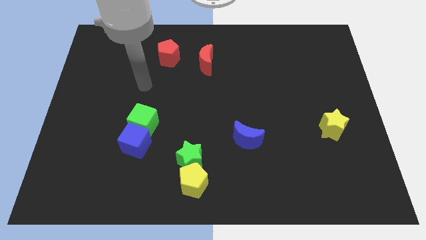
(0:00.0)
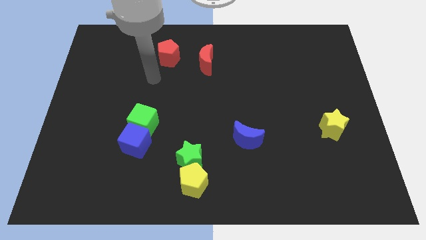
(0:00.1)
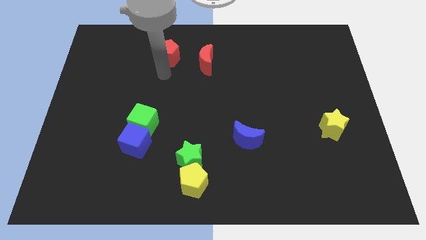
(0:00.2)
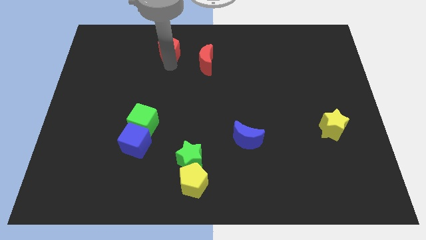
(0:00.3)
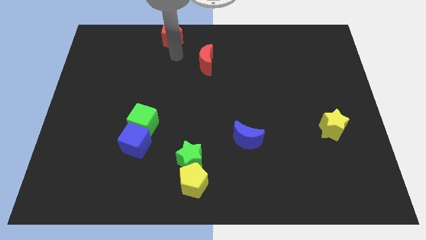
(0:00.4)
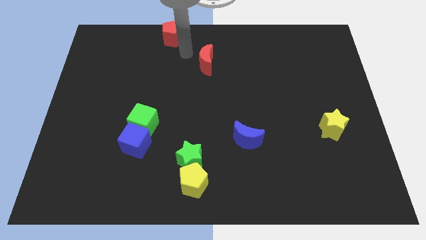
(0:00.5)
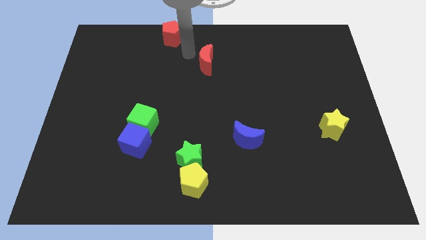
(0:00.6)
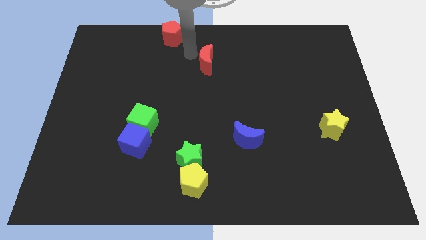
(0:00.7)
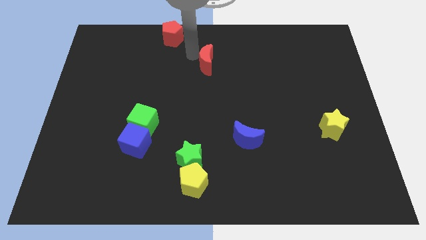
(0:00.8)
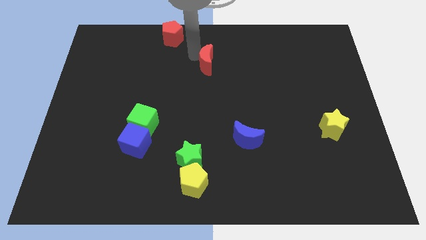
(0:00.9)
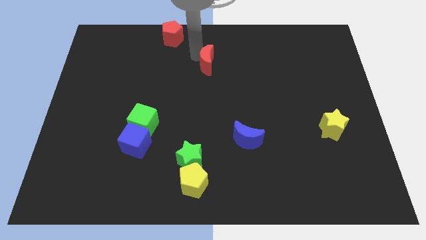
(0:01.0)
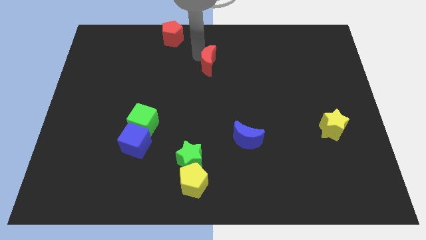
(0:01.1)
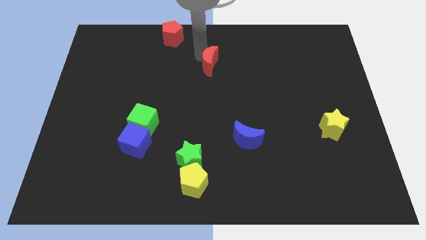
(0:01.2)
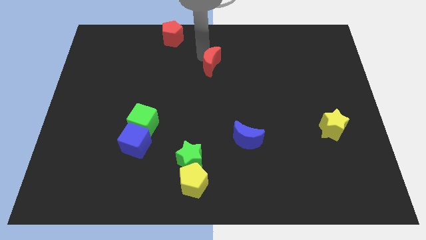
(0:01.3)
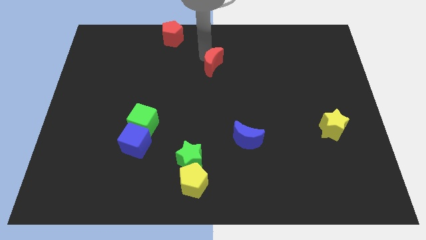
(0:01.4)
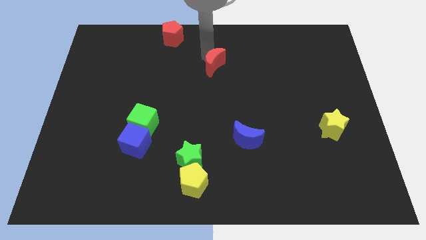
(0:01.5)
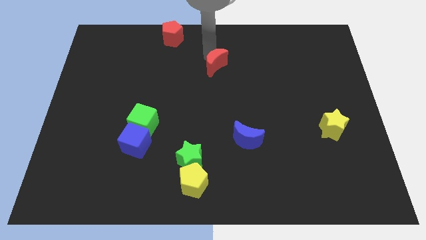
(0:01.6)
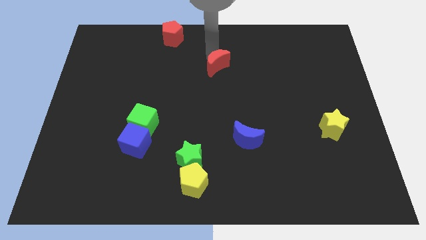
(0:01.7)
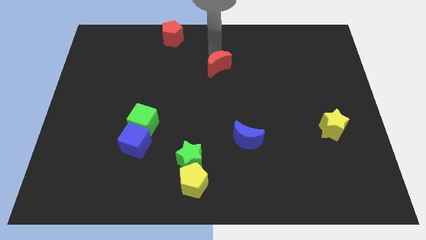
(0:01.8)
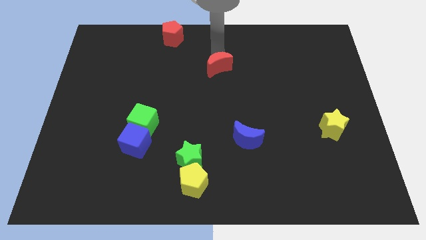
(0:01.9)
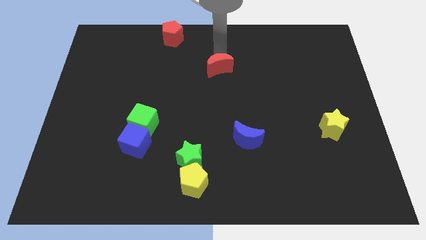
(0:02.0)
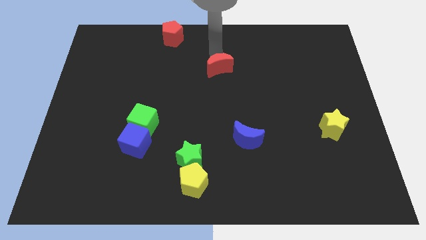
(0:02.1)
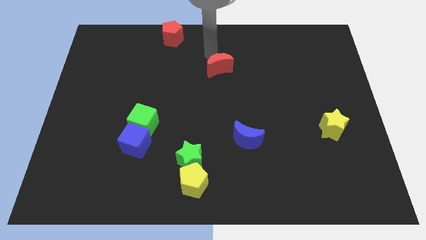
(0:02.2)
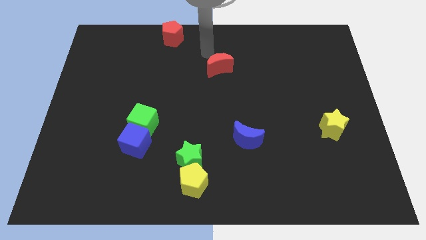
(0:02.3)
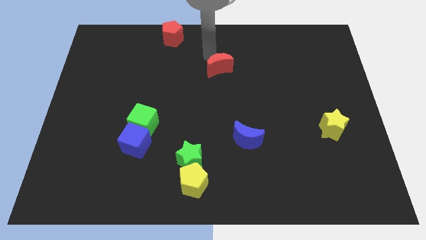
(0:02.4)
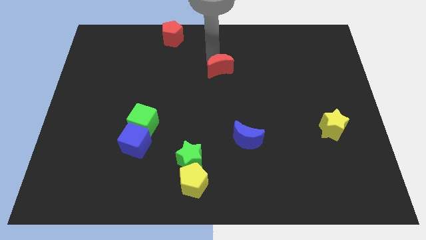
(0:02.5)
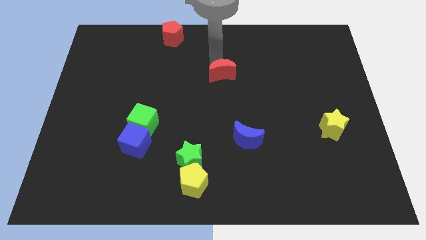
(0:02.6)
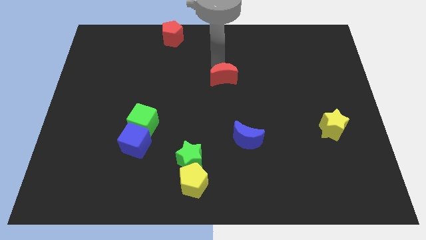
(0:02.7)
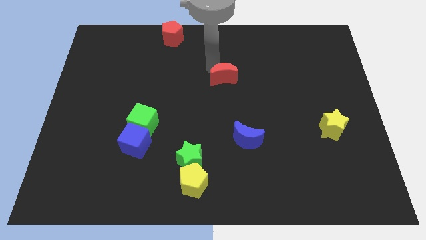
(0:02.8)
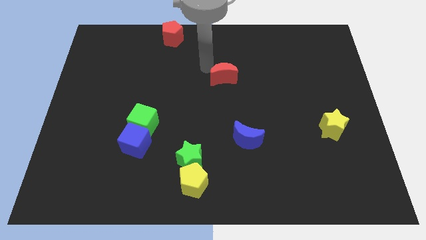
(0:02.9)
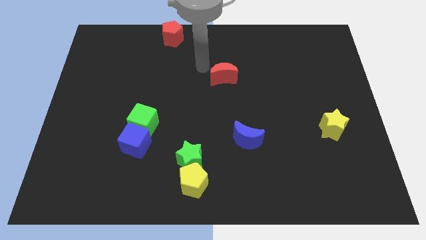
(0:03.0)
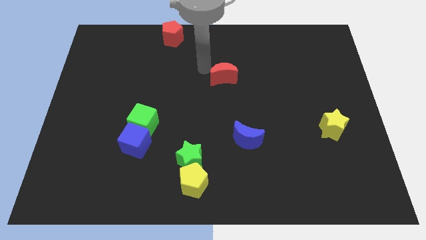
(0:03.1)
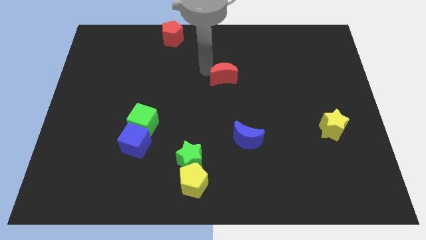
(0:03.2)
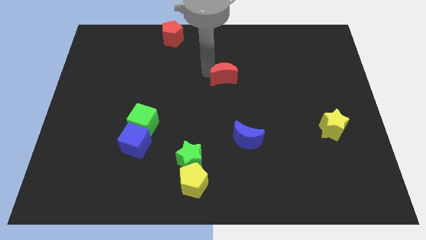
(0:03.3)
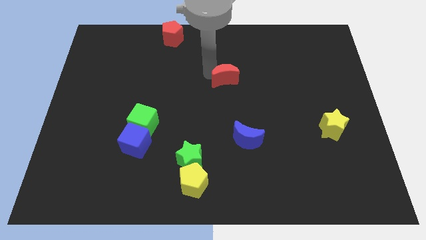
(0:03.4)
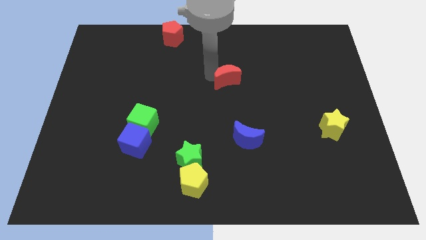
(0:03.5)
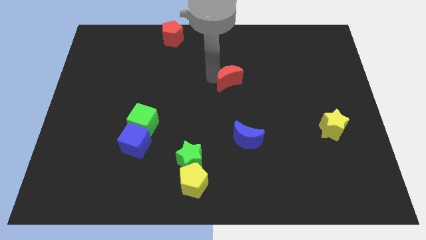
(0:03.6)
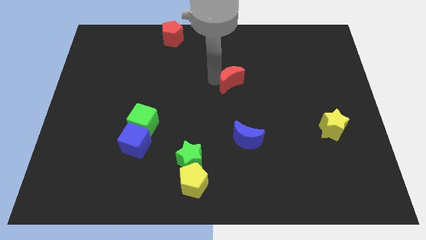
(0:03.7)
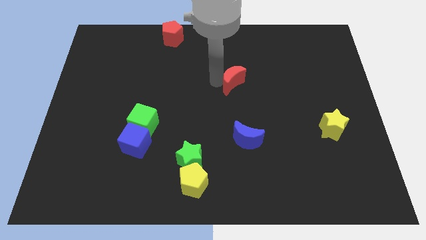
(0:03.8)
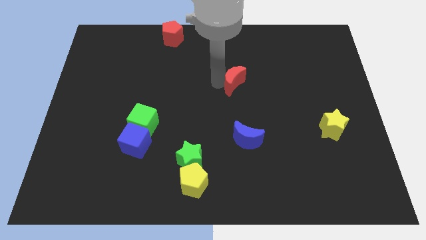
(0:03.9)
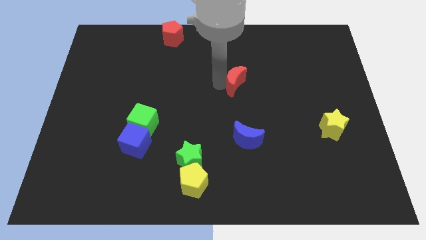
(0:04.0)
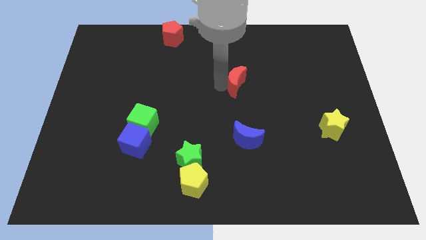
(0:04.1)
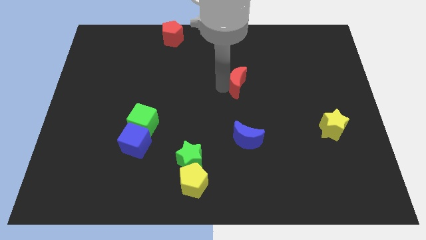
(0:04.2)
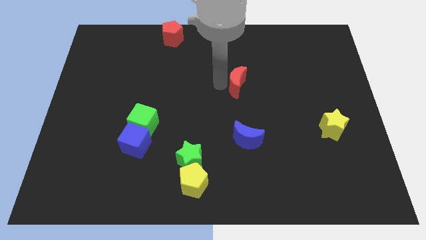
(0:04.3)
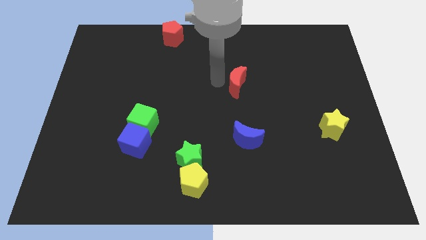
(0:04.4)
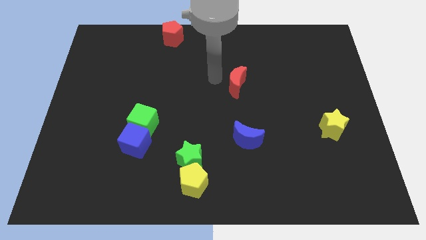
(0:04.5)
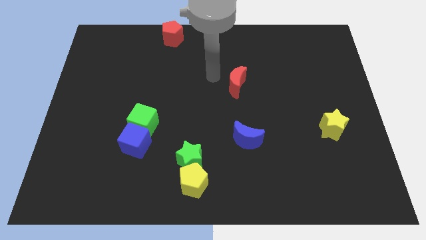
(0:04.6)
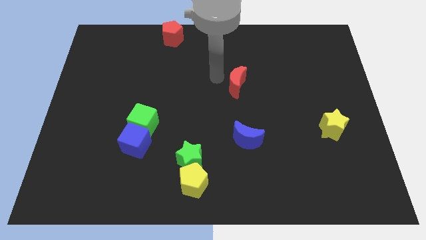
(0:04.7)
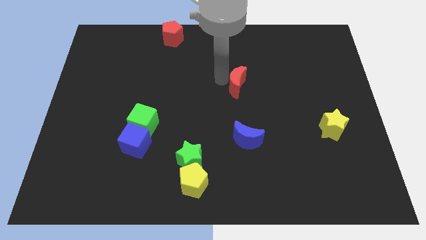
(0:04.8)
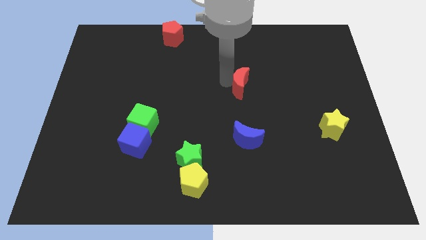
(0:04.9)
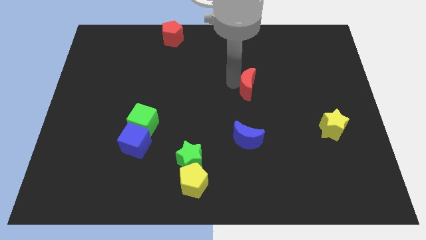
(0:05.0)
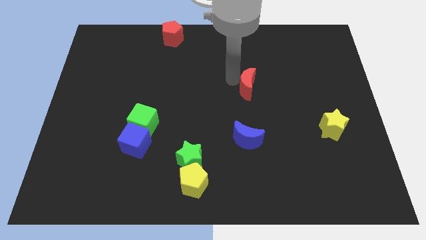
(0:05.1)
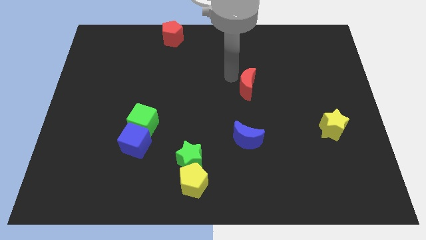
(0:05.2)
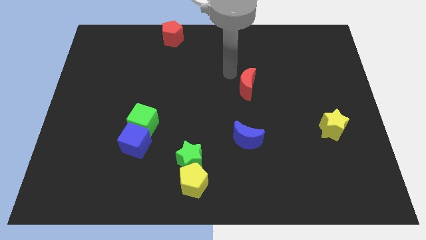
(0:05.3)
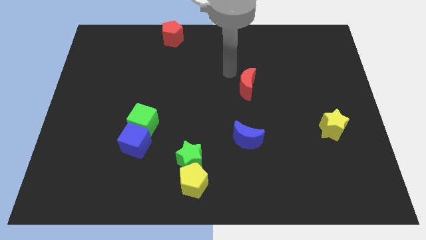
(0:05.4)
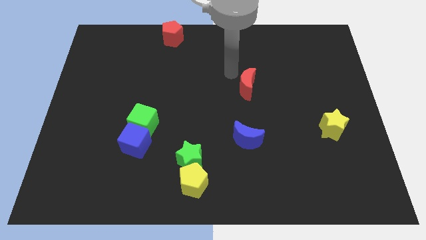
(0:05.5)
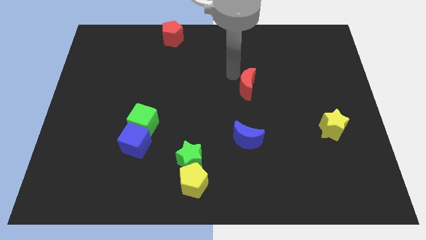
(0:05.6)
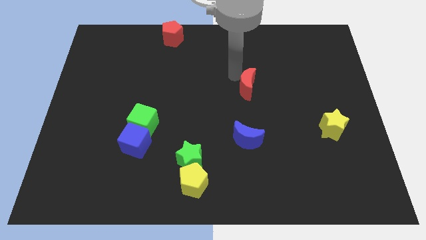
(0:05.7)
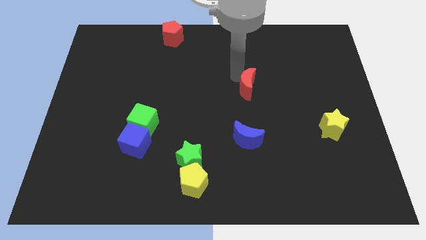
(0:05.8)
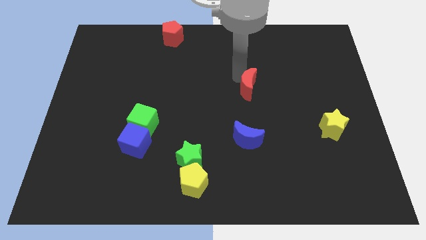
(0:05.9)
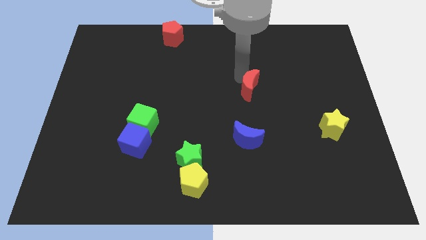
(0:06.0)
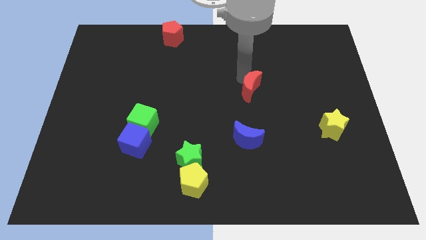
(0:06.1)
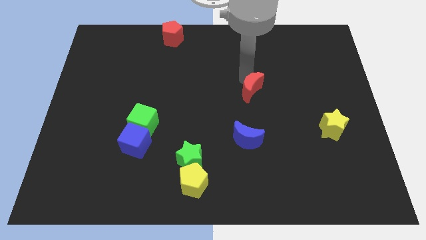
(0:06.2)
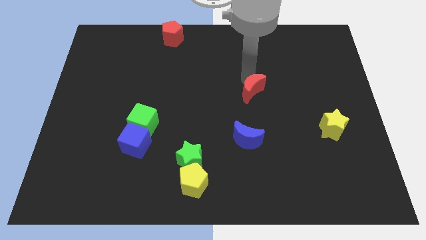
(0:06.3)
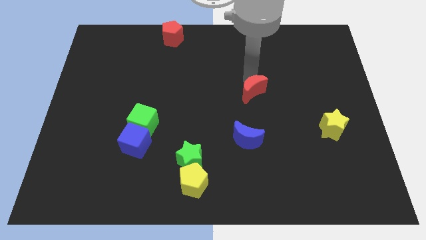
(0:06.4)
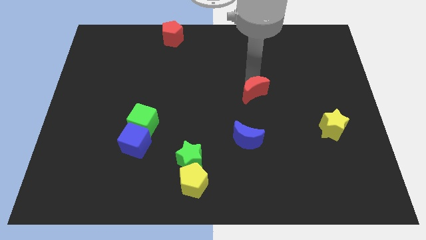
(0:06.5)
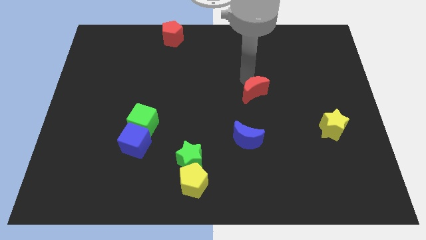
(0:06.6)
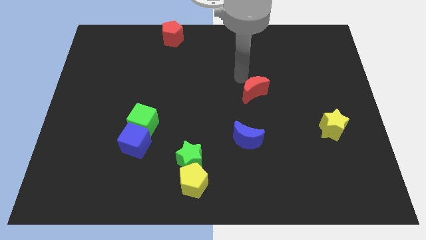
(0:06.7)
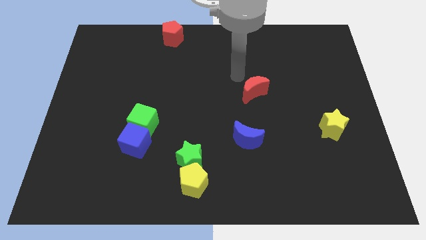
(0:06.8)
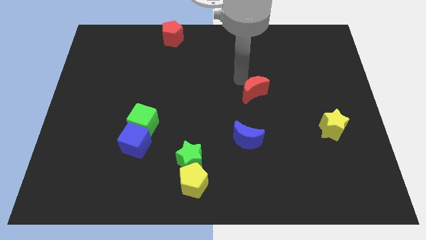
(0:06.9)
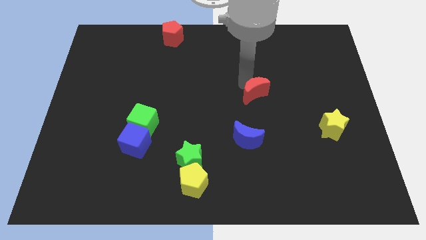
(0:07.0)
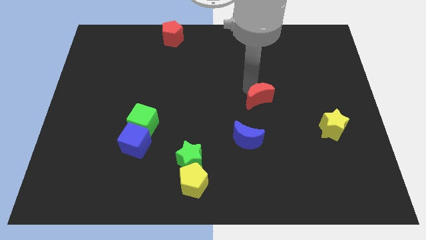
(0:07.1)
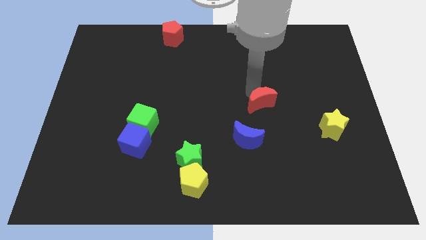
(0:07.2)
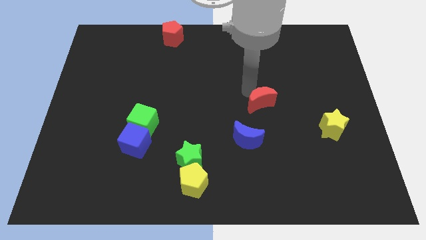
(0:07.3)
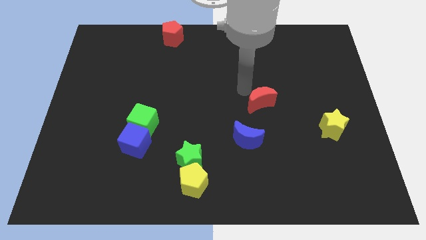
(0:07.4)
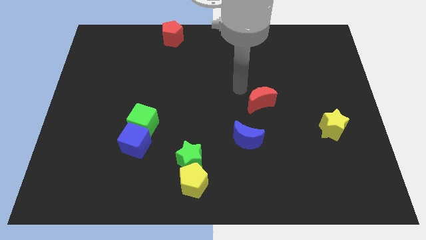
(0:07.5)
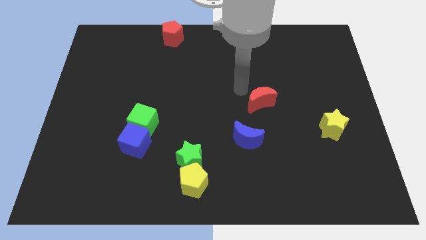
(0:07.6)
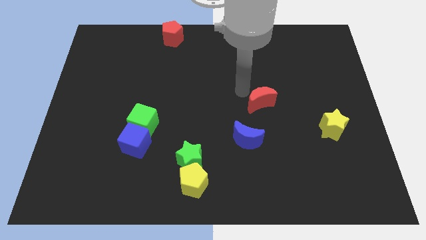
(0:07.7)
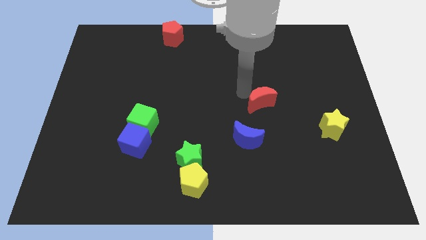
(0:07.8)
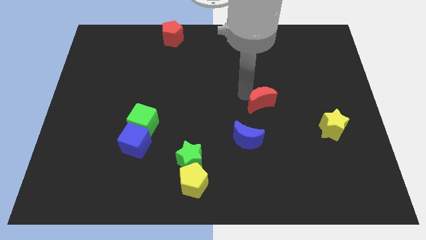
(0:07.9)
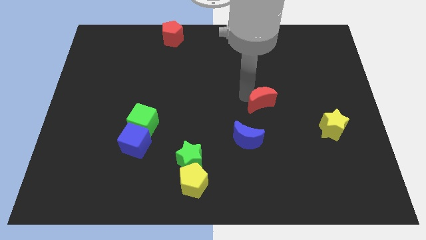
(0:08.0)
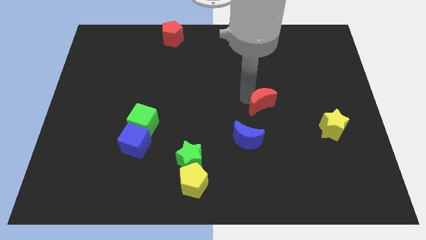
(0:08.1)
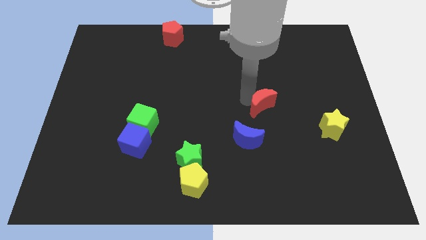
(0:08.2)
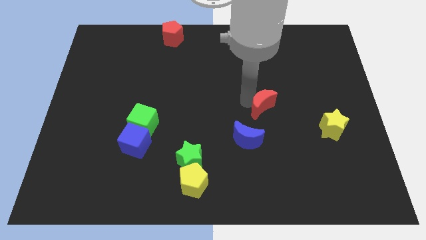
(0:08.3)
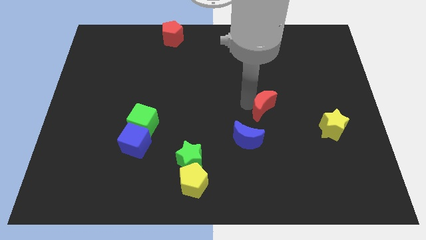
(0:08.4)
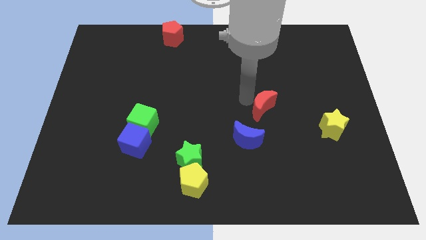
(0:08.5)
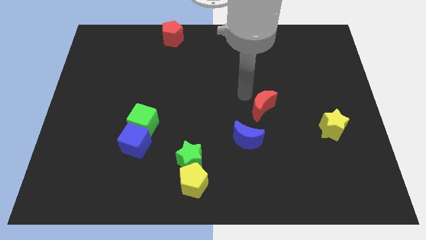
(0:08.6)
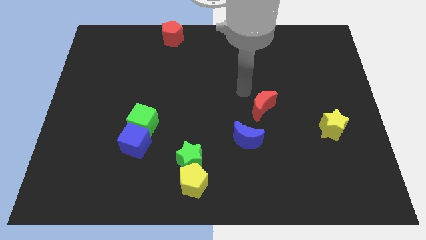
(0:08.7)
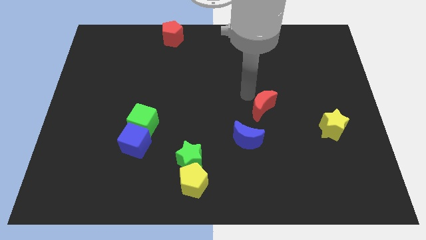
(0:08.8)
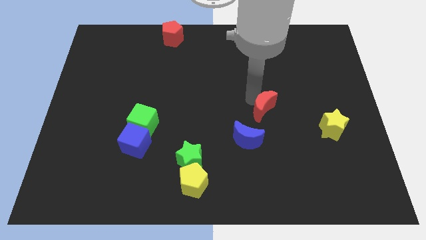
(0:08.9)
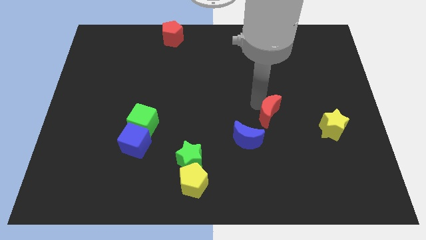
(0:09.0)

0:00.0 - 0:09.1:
slide the red moon just left of the yellow star
